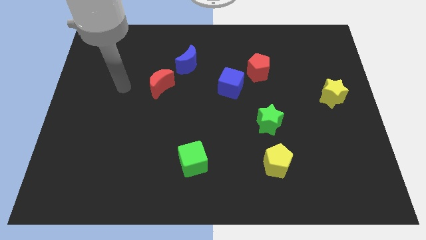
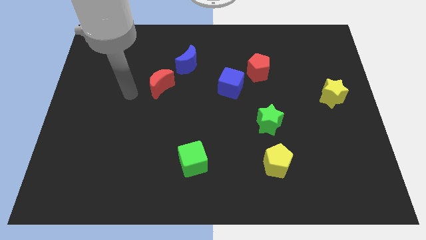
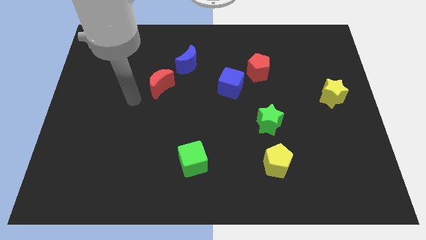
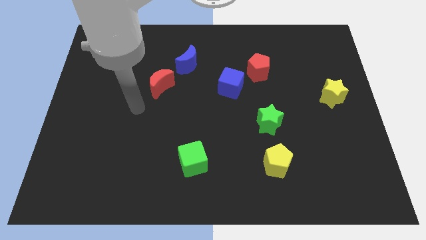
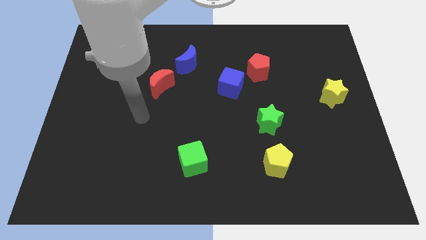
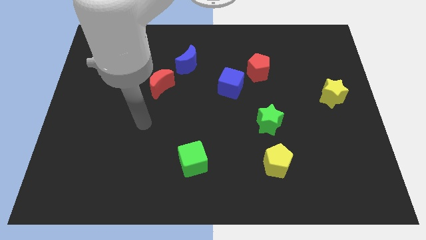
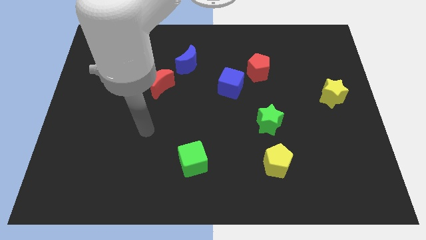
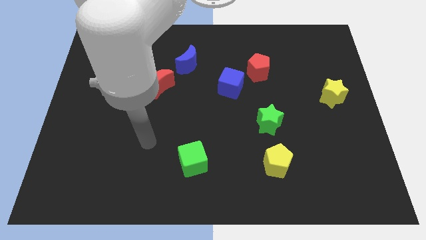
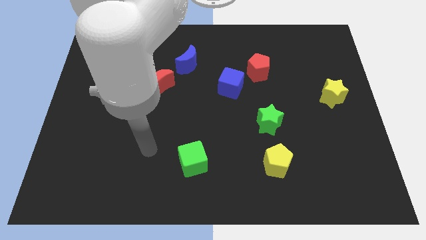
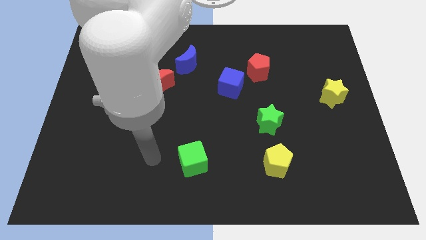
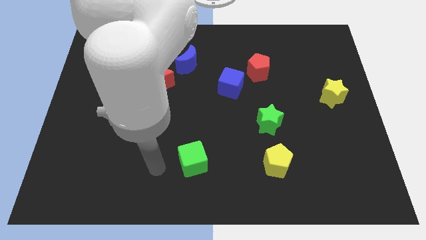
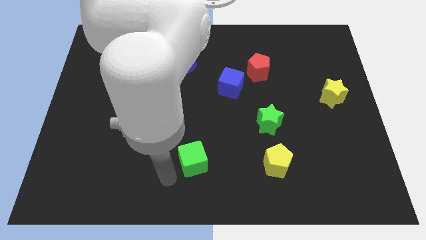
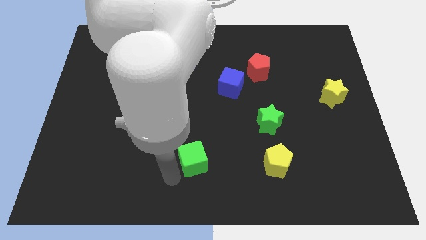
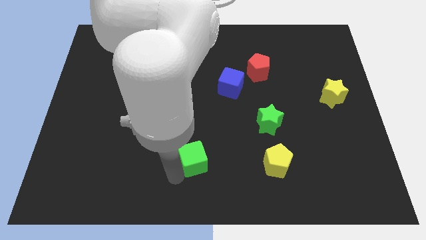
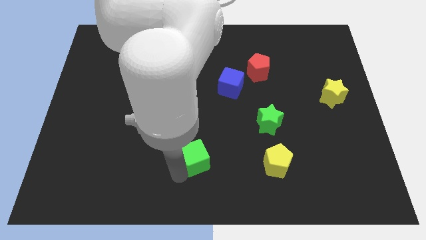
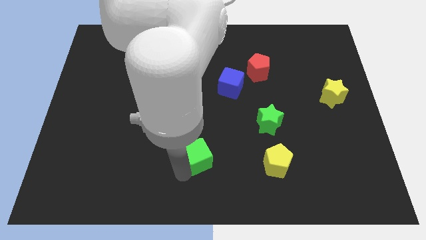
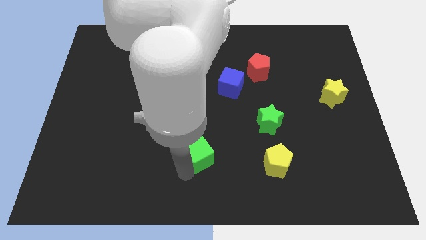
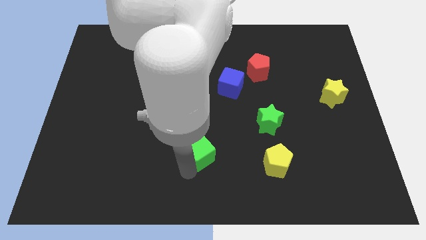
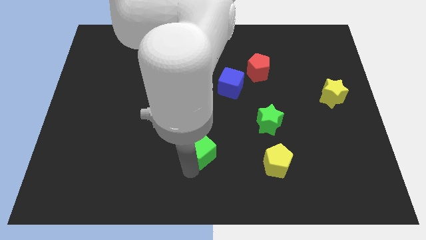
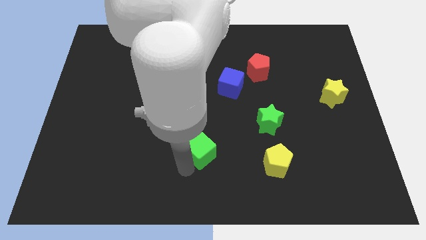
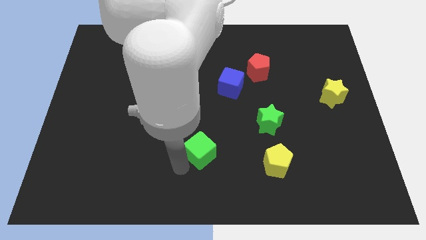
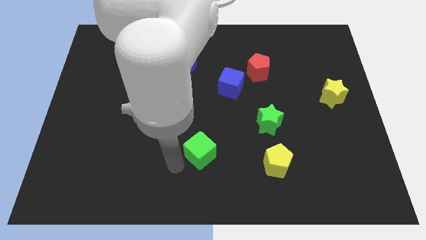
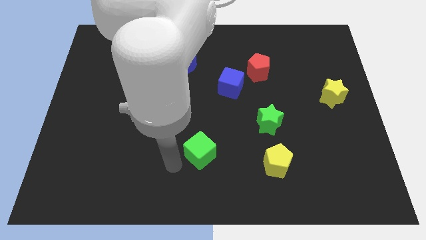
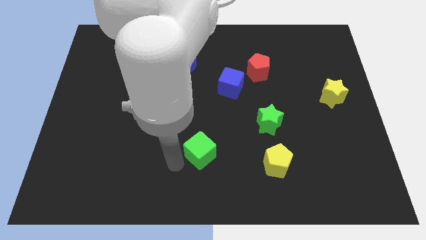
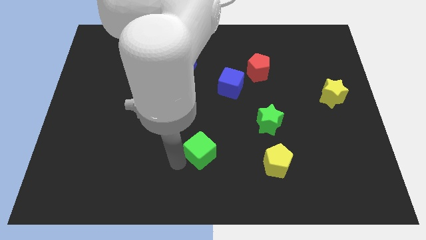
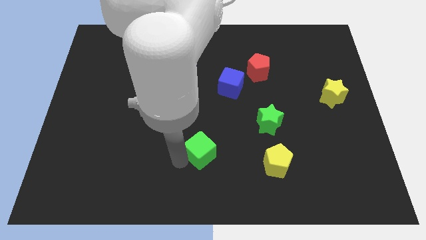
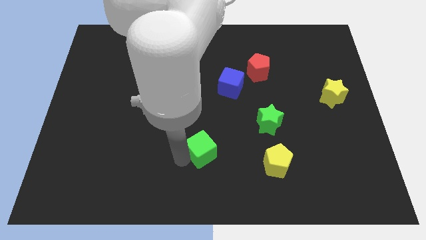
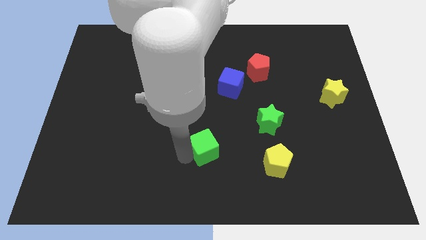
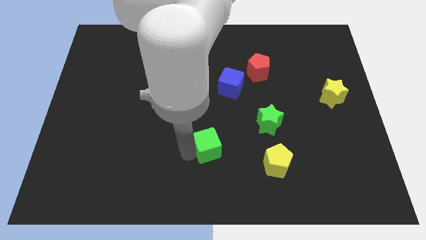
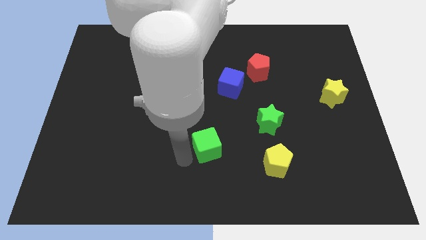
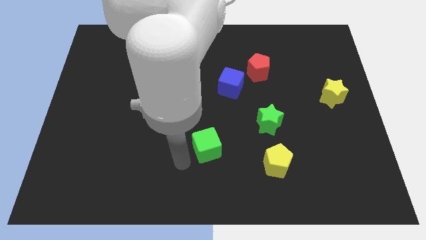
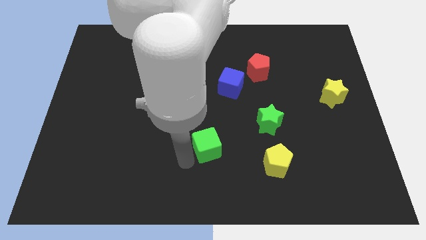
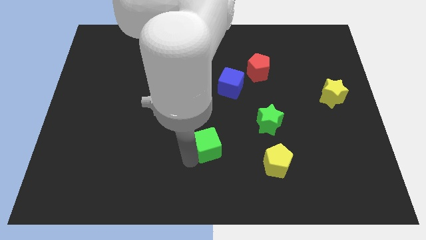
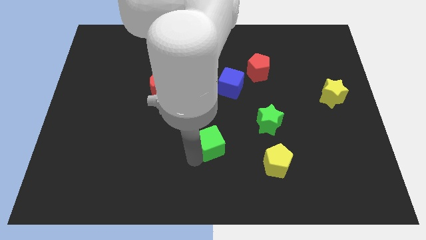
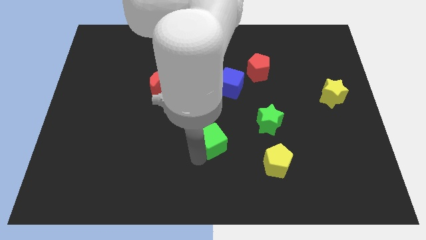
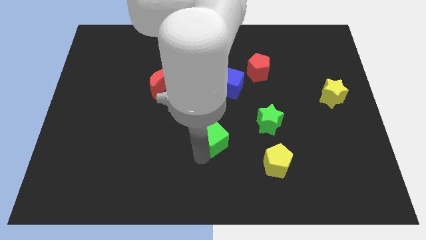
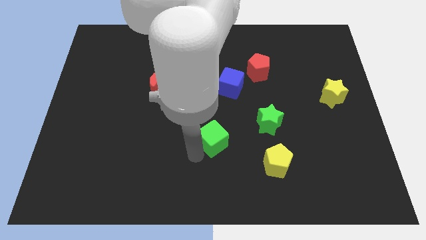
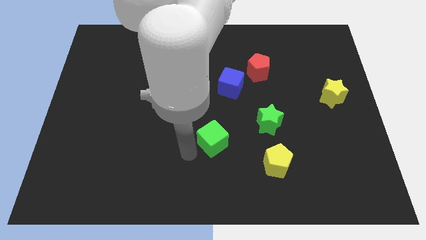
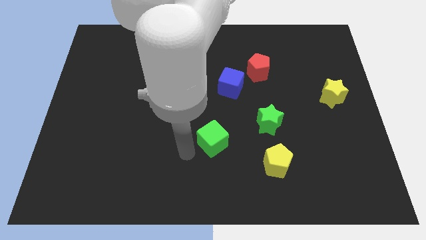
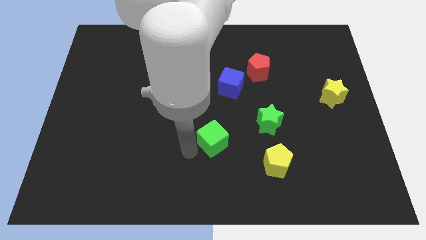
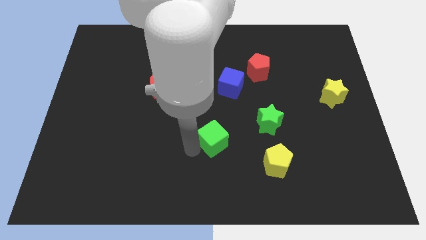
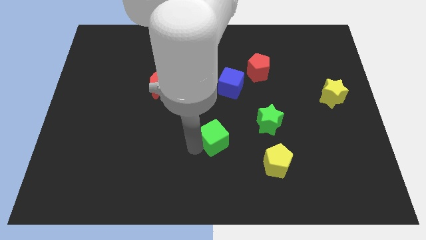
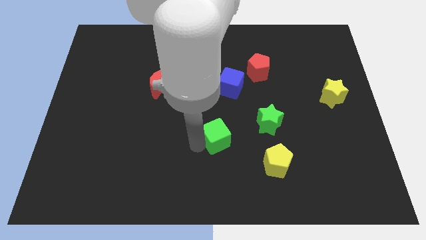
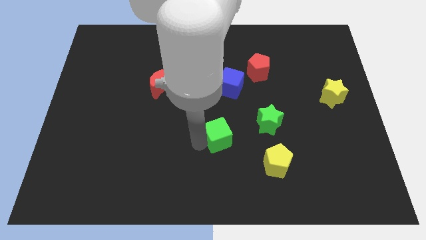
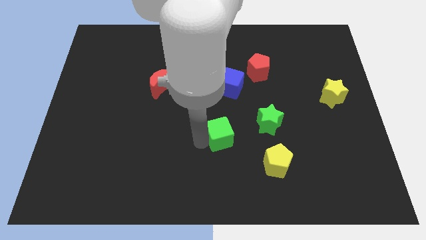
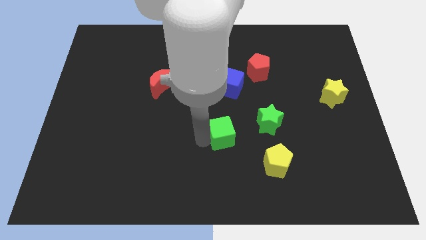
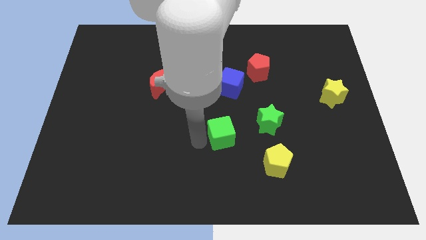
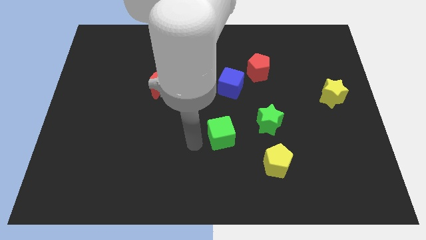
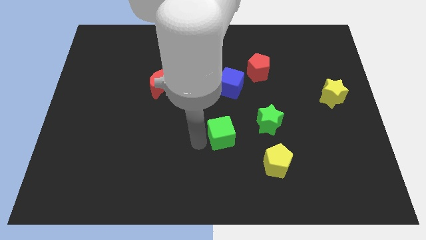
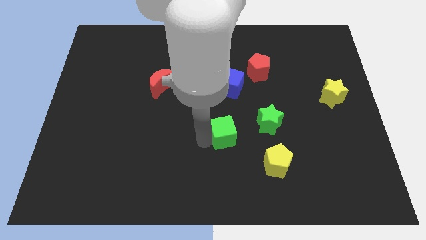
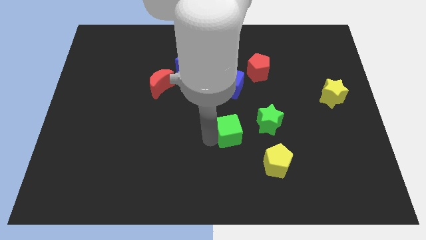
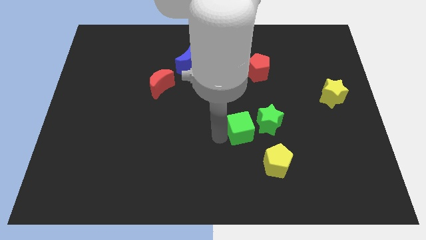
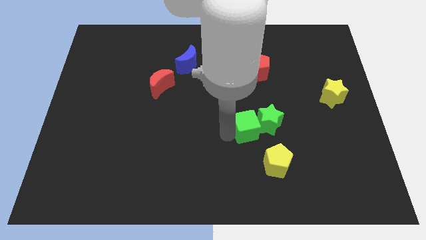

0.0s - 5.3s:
move the green cube to the green star

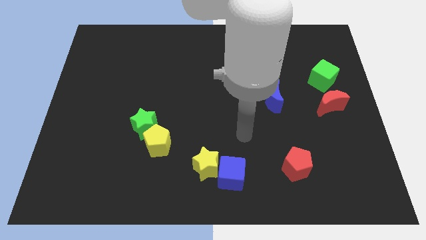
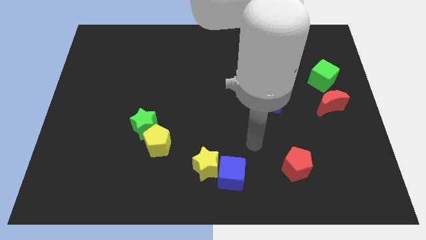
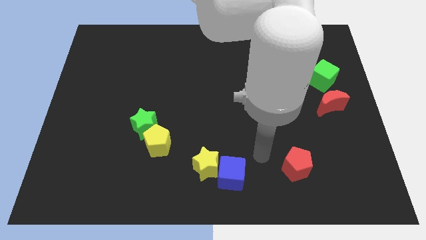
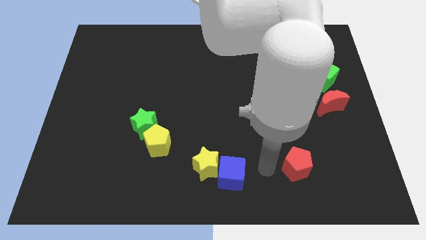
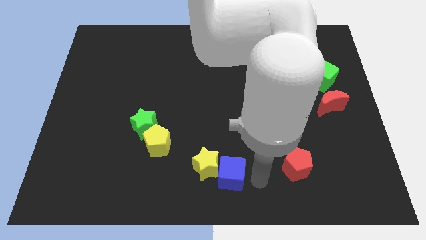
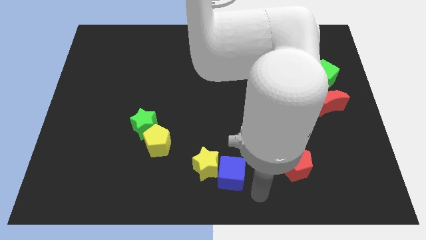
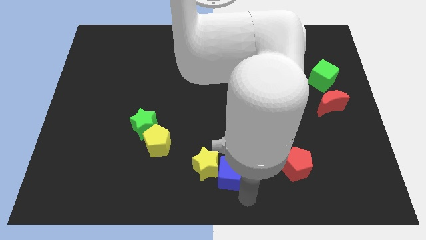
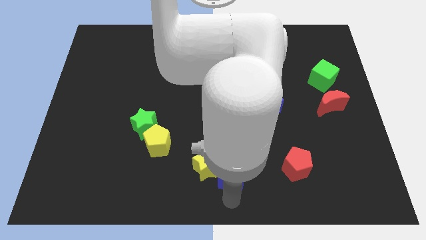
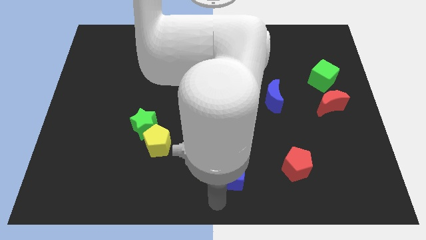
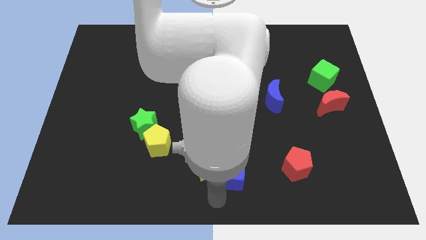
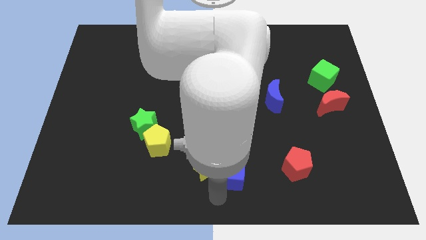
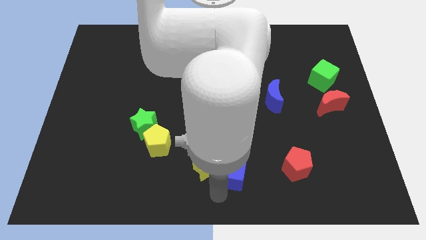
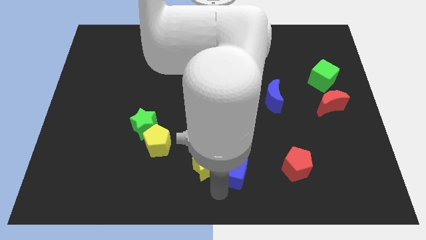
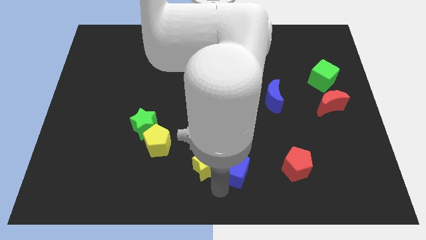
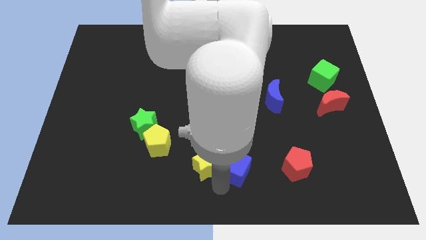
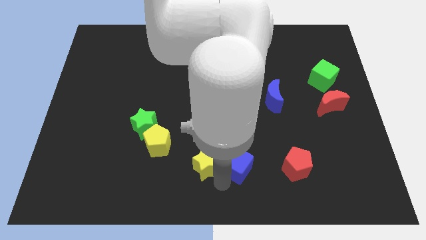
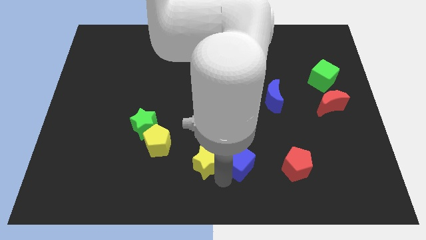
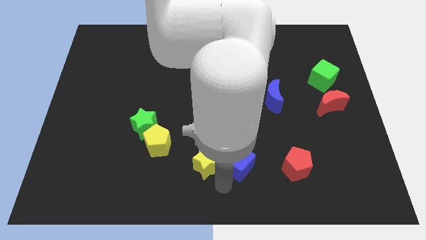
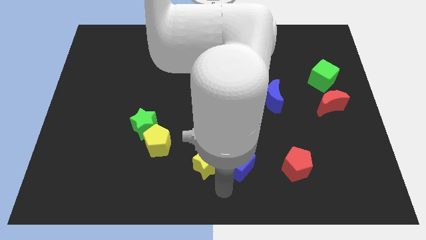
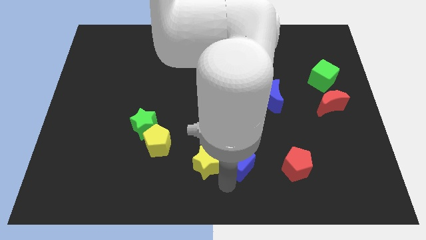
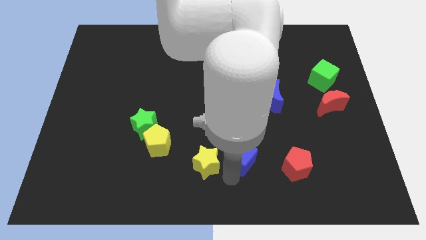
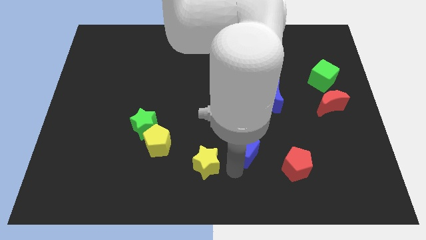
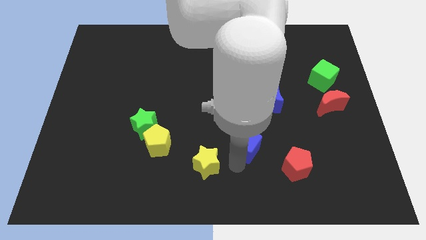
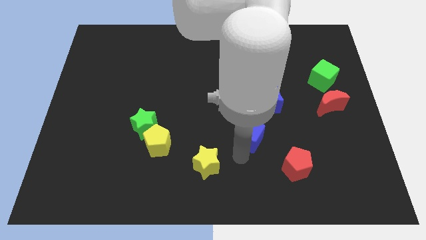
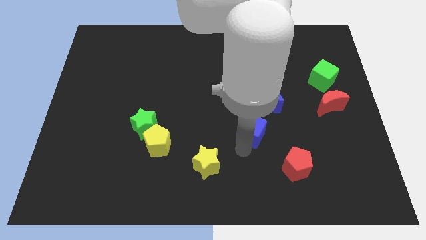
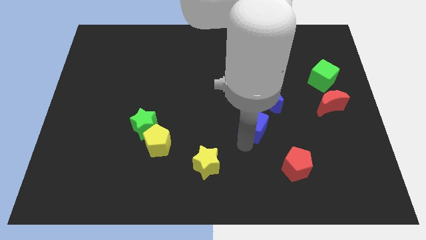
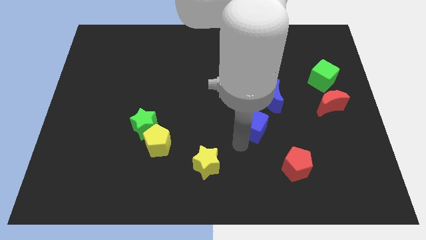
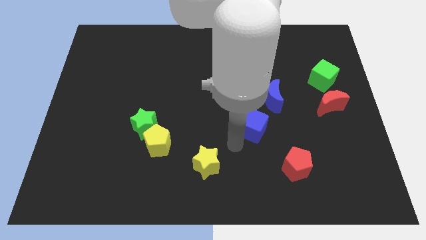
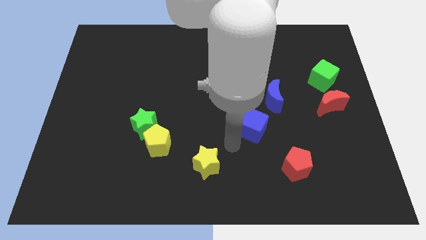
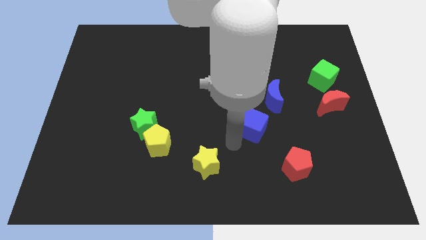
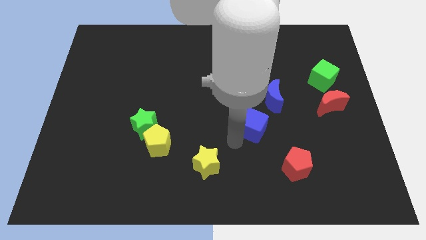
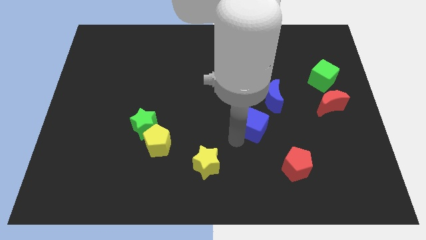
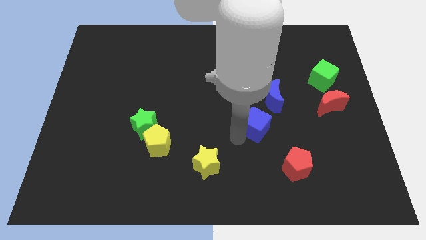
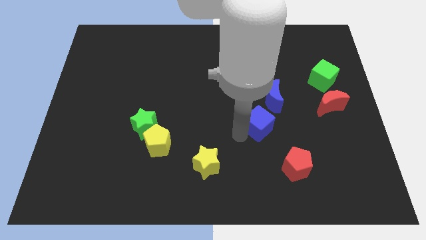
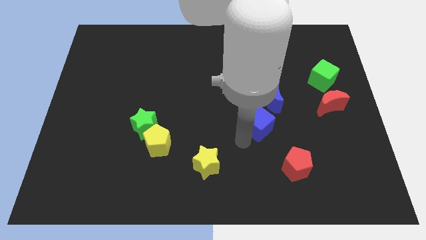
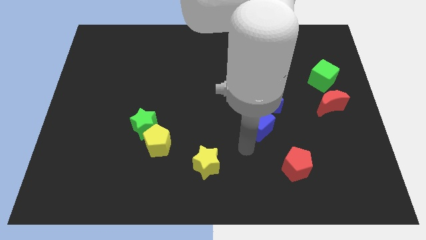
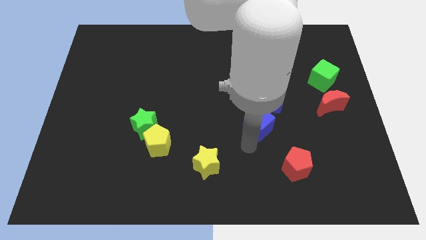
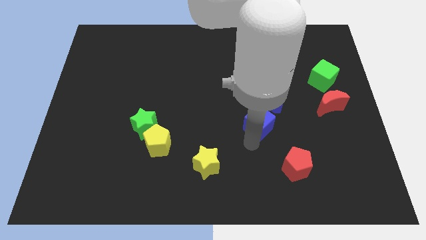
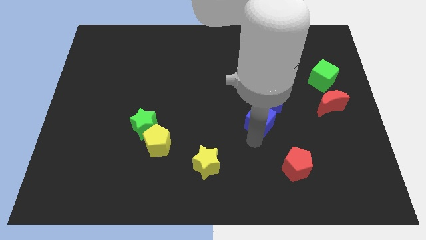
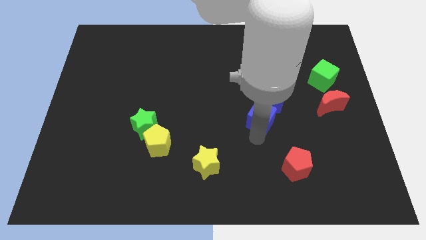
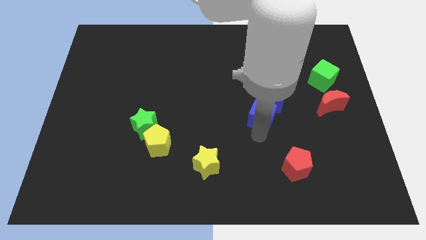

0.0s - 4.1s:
move the blue cube towards the blue moon
